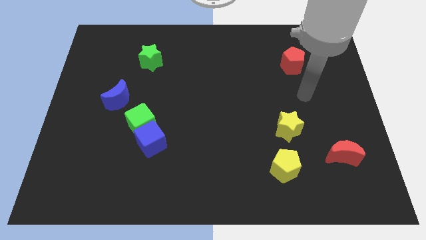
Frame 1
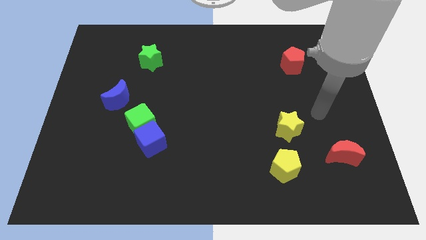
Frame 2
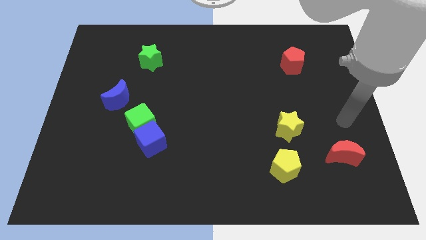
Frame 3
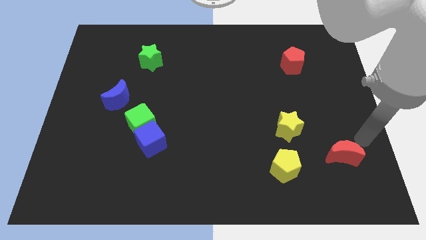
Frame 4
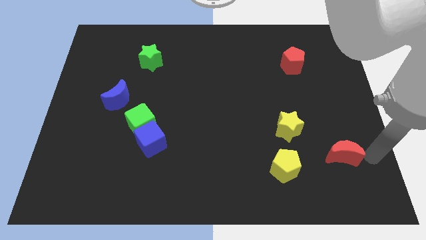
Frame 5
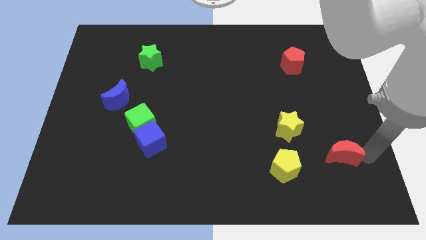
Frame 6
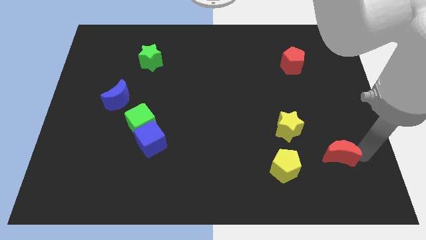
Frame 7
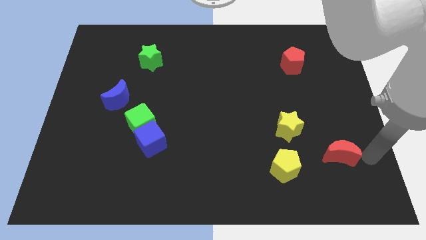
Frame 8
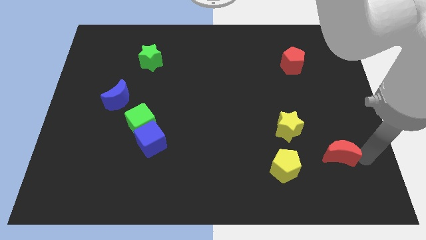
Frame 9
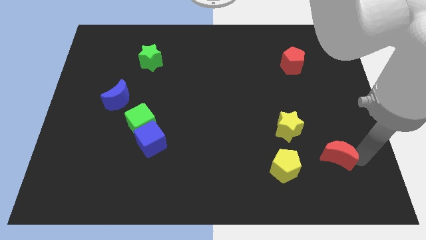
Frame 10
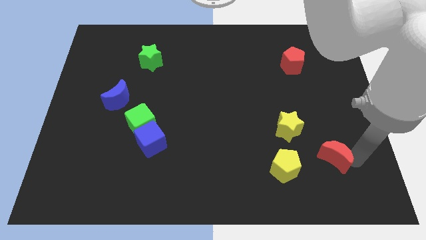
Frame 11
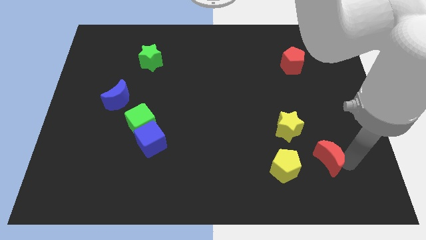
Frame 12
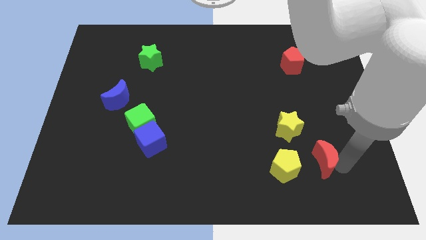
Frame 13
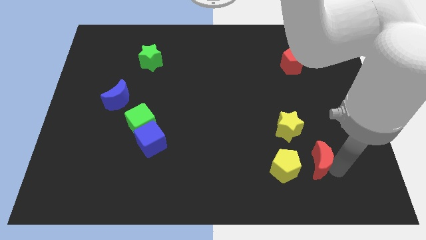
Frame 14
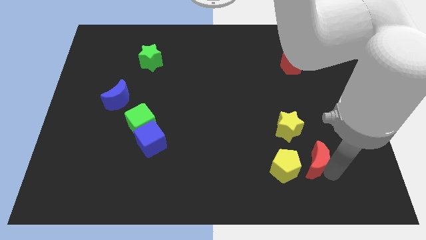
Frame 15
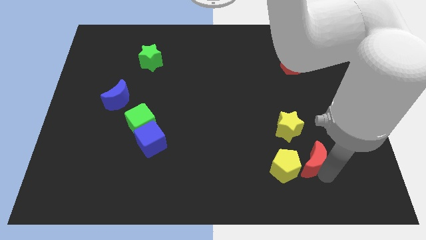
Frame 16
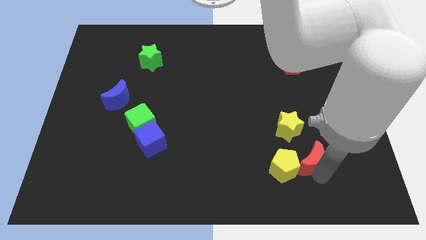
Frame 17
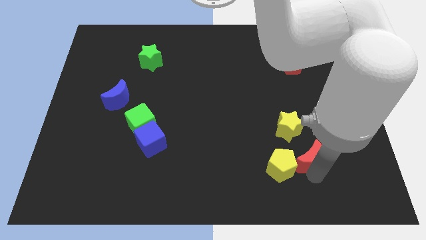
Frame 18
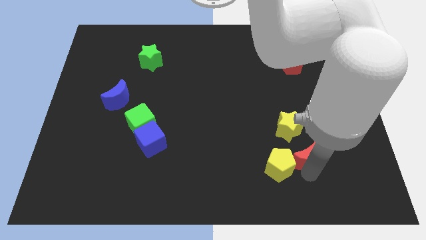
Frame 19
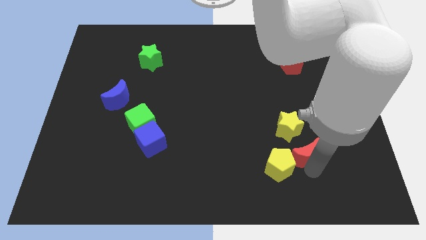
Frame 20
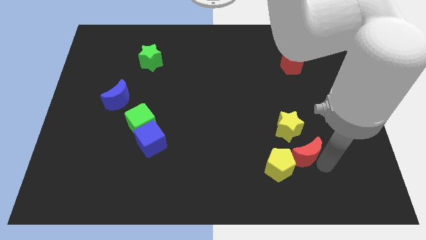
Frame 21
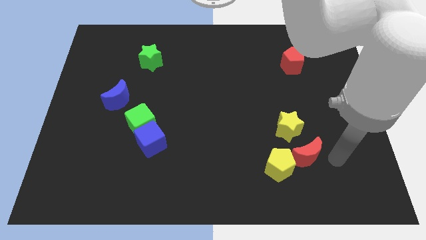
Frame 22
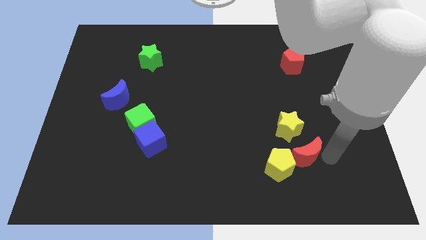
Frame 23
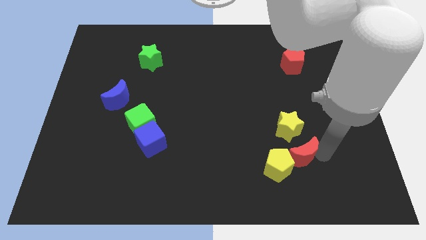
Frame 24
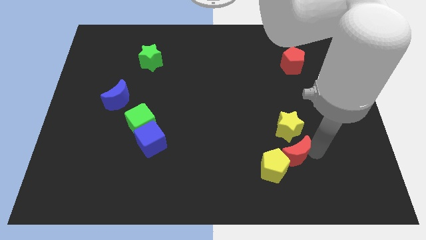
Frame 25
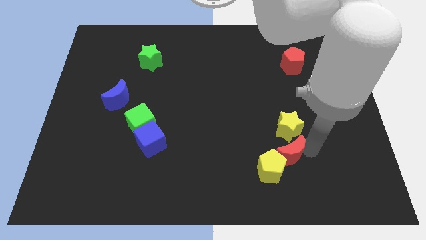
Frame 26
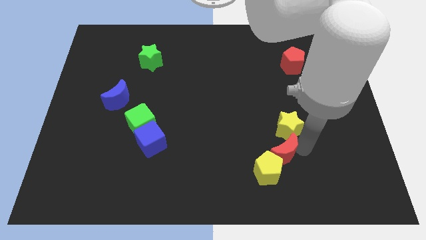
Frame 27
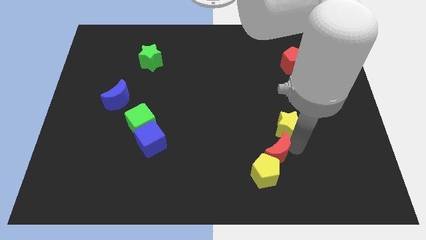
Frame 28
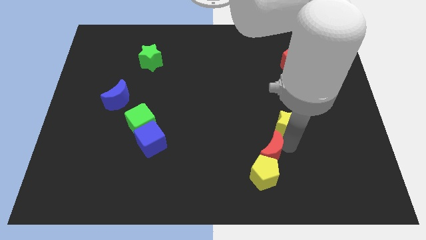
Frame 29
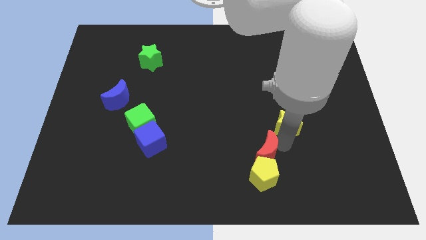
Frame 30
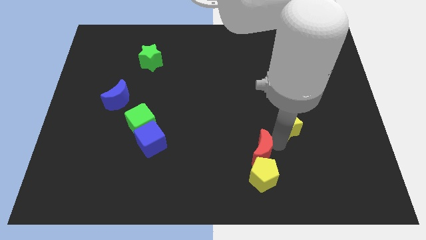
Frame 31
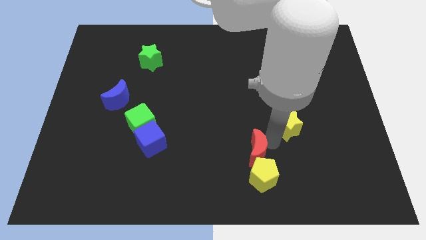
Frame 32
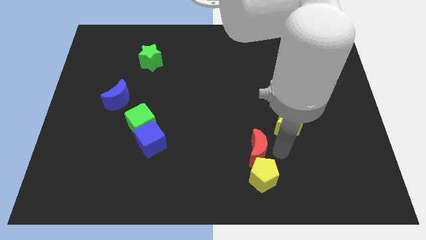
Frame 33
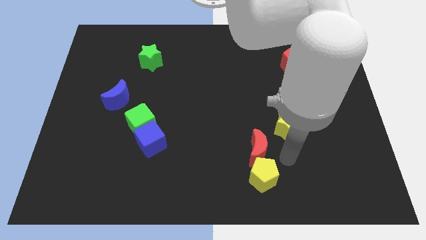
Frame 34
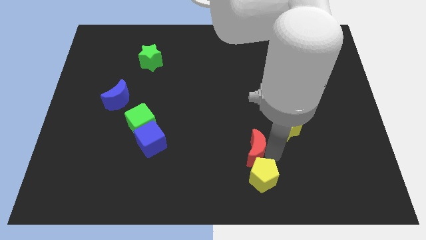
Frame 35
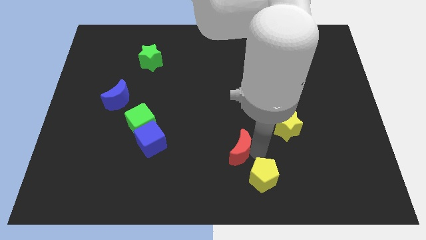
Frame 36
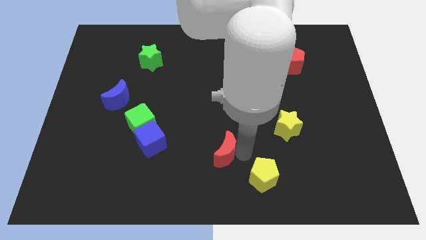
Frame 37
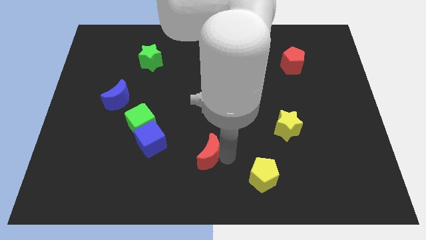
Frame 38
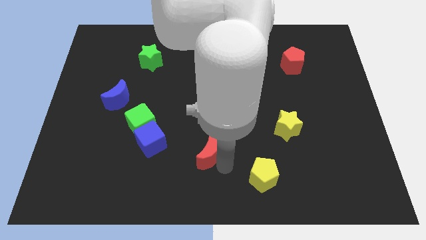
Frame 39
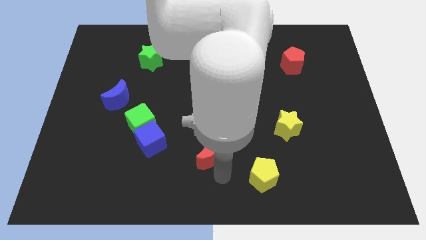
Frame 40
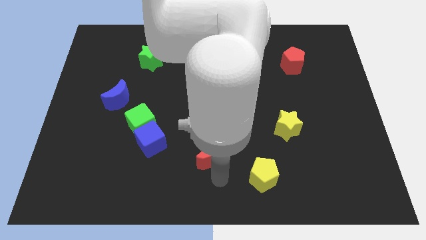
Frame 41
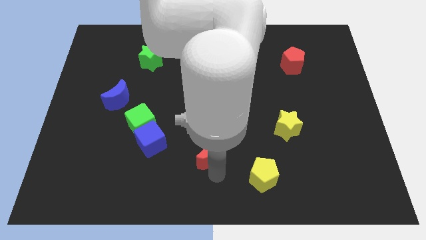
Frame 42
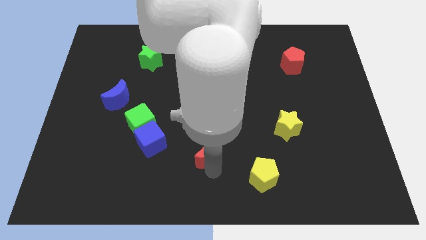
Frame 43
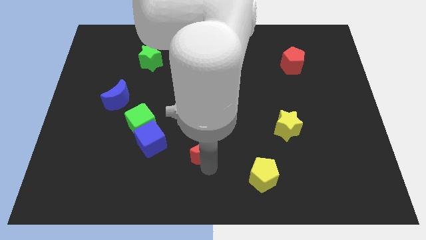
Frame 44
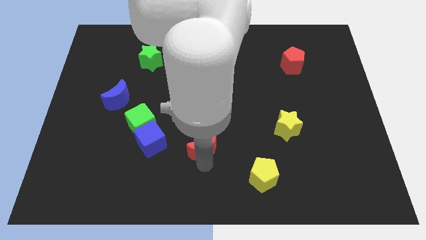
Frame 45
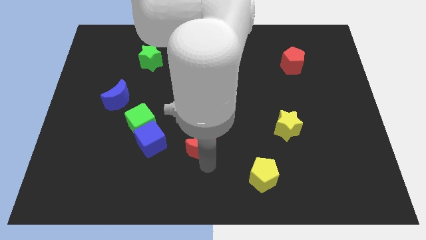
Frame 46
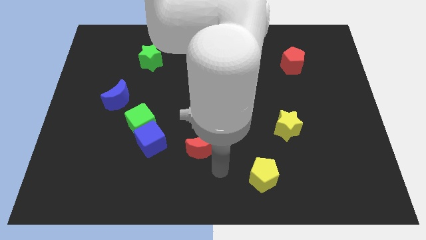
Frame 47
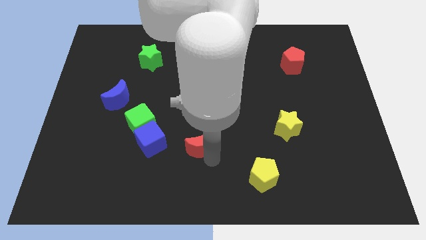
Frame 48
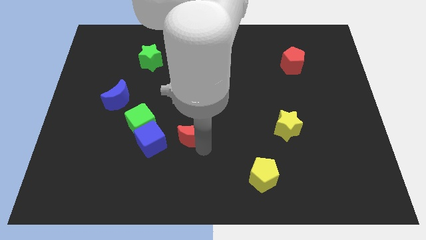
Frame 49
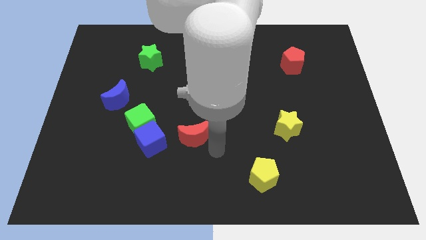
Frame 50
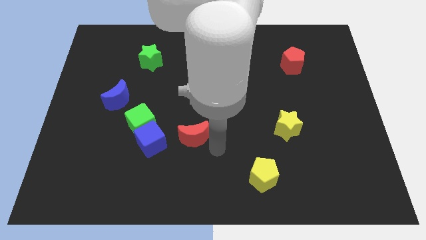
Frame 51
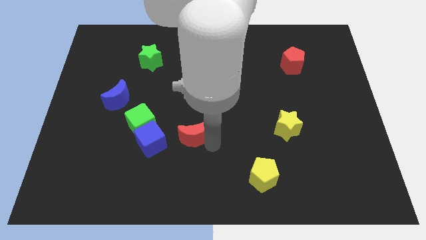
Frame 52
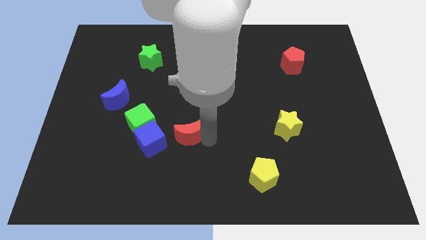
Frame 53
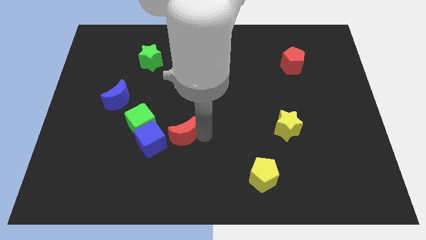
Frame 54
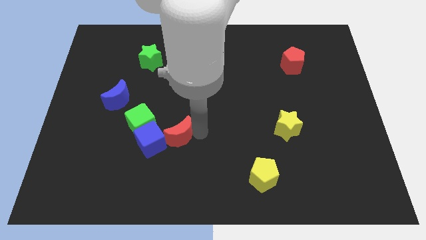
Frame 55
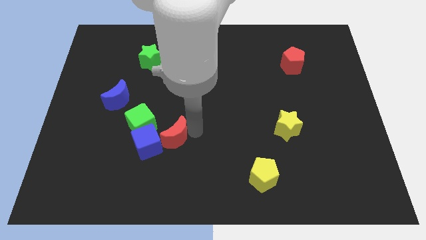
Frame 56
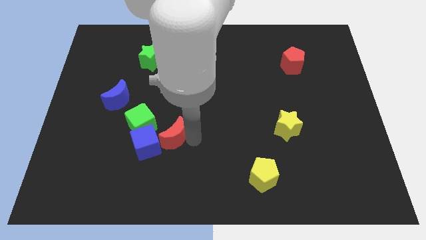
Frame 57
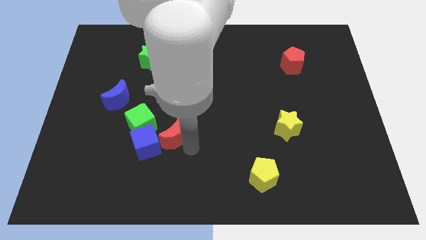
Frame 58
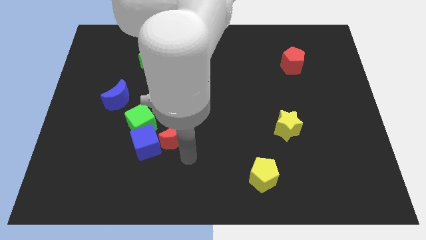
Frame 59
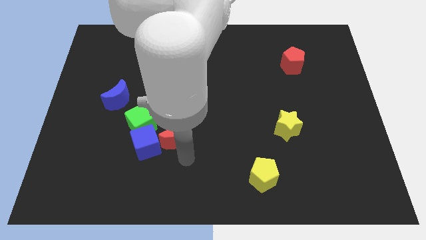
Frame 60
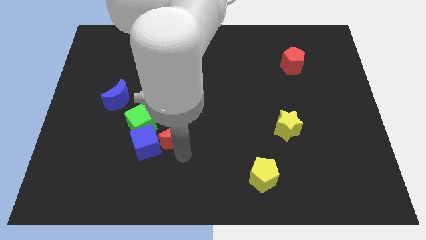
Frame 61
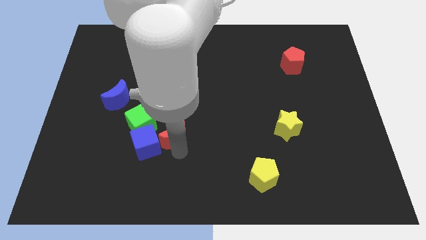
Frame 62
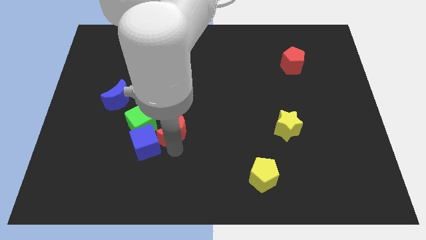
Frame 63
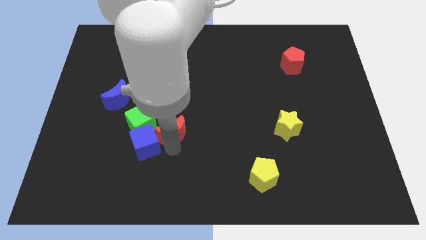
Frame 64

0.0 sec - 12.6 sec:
move the red moon to the blue cube

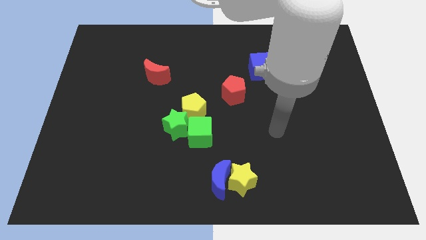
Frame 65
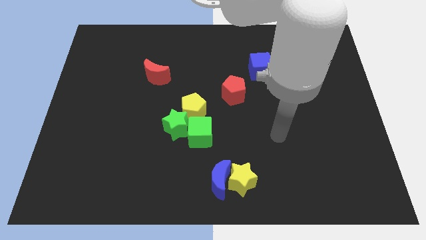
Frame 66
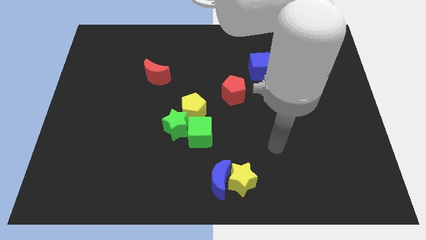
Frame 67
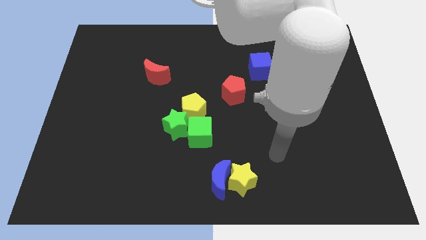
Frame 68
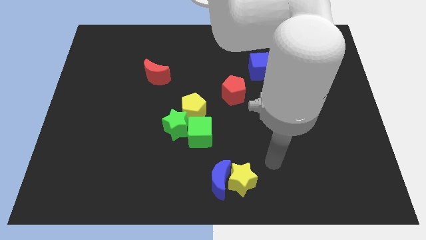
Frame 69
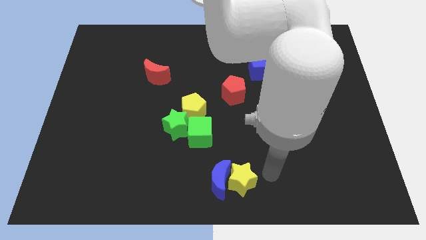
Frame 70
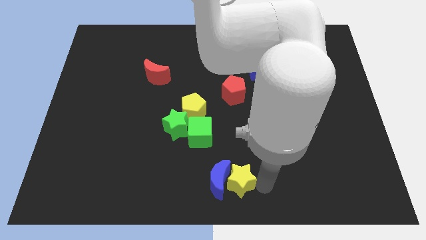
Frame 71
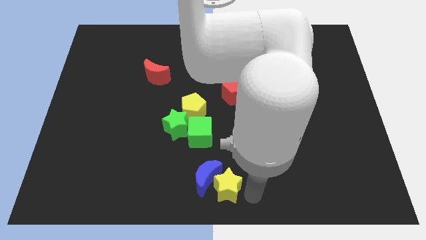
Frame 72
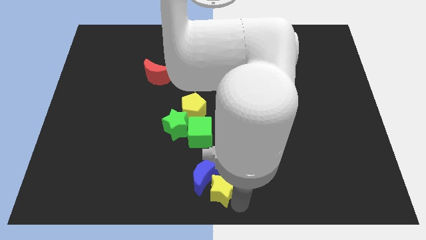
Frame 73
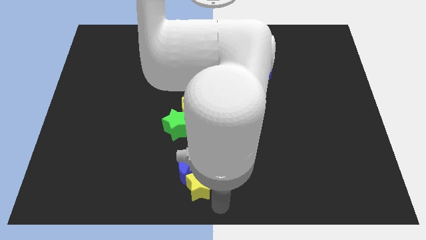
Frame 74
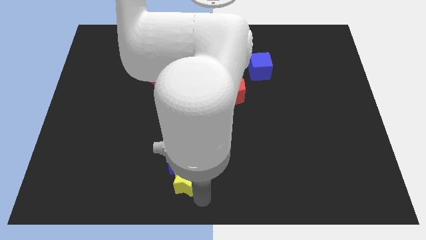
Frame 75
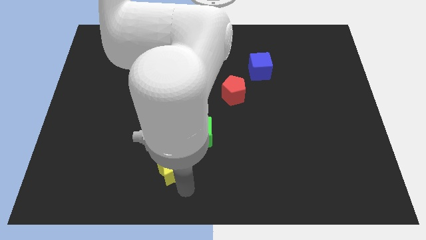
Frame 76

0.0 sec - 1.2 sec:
slide the blue moon towards the green cube
